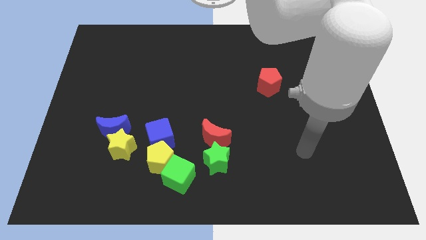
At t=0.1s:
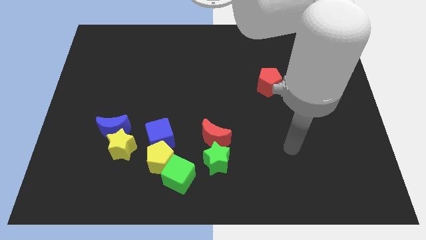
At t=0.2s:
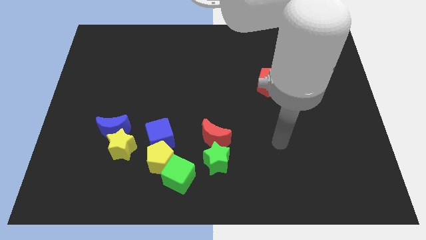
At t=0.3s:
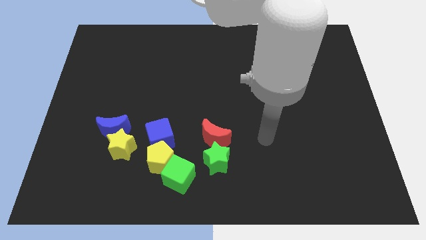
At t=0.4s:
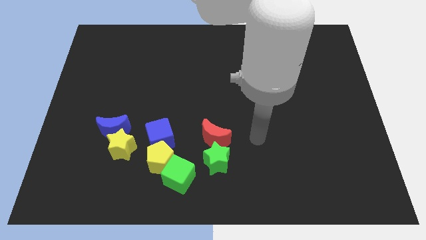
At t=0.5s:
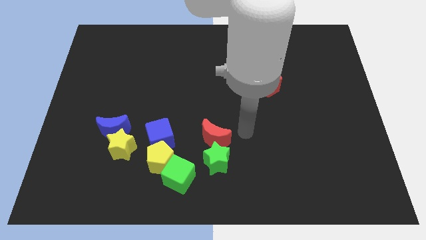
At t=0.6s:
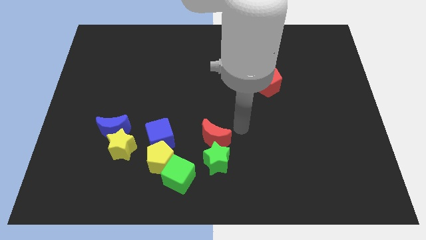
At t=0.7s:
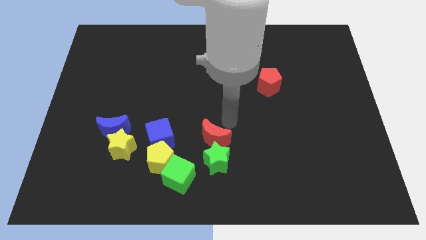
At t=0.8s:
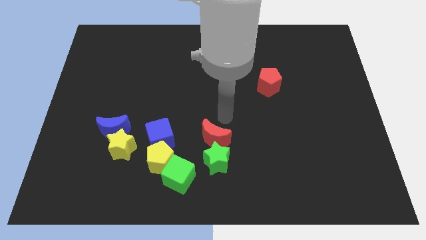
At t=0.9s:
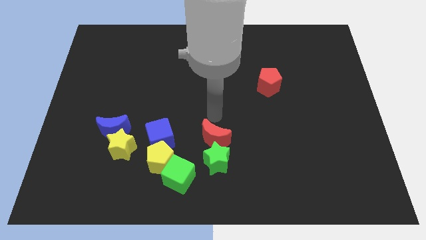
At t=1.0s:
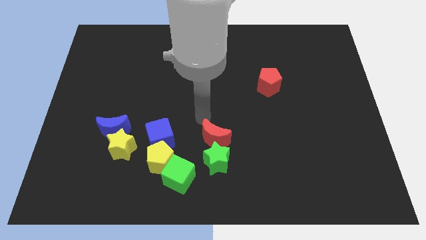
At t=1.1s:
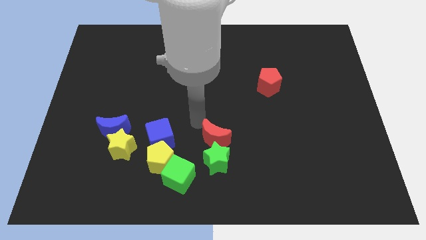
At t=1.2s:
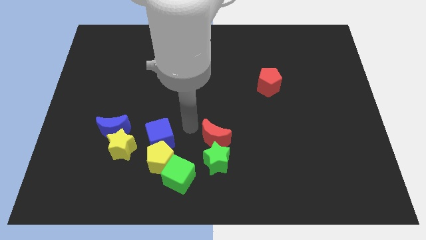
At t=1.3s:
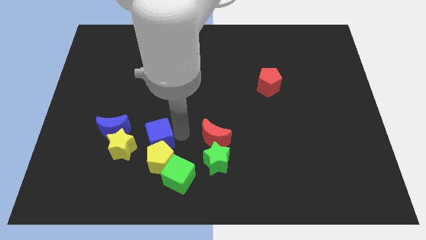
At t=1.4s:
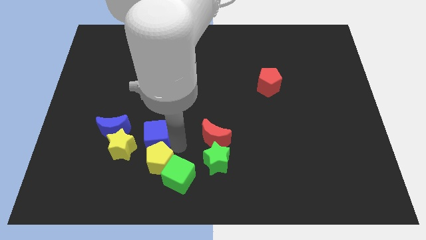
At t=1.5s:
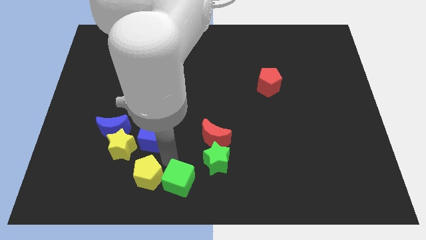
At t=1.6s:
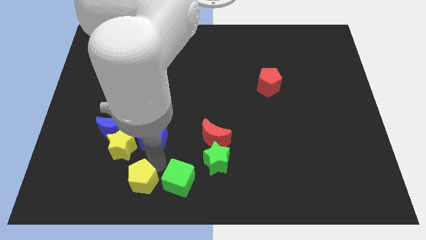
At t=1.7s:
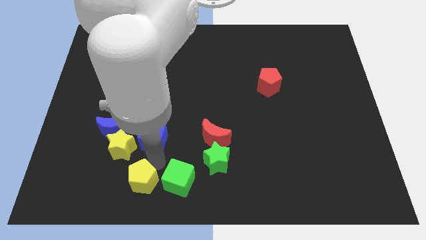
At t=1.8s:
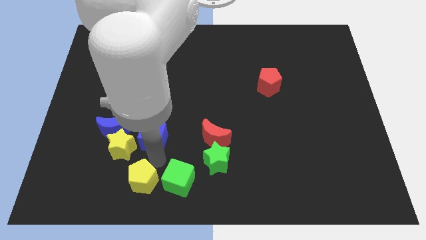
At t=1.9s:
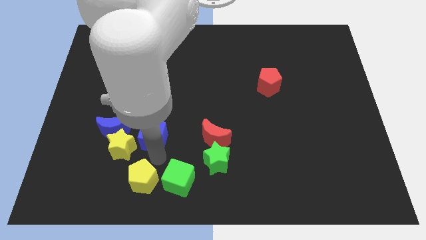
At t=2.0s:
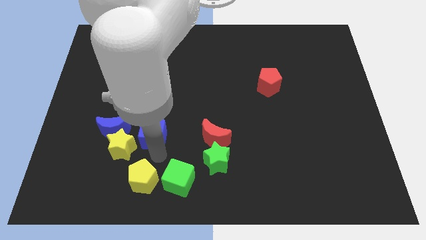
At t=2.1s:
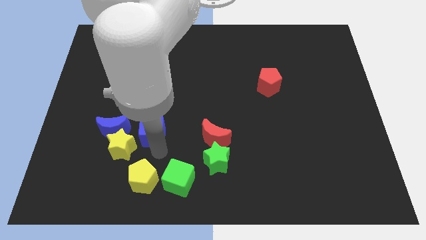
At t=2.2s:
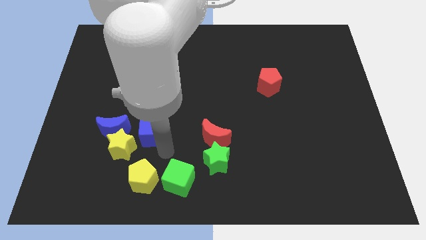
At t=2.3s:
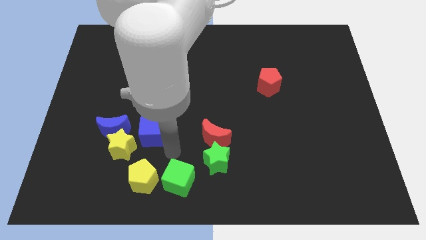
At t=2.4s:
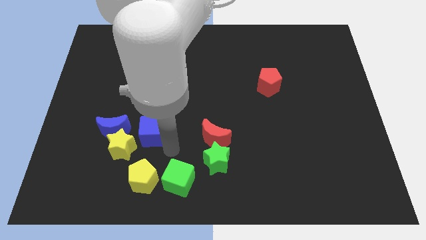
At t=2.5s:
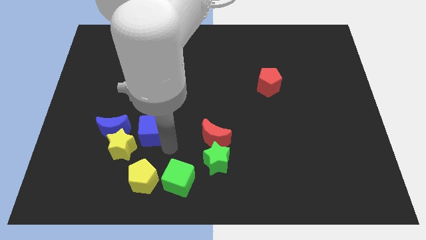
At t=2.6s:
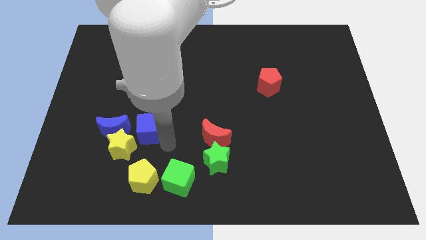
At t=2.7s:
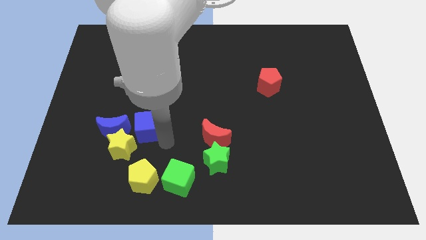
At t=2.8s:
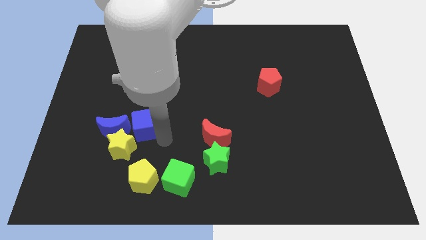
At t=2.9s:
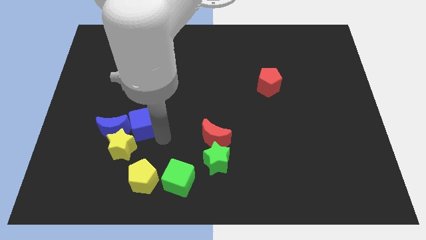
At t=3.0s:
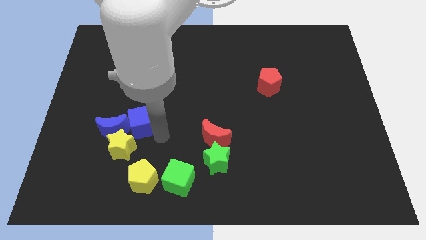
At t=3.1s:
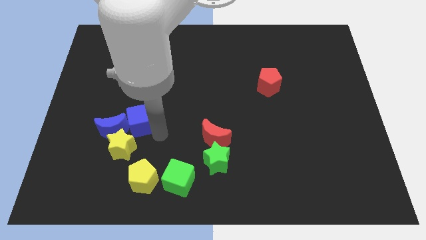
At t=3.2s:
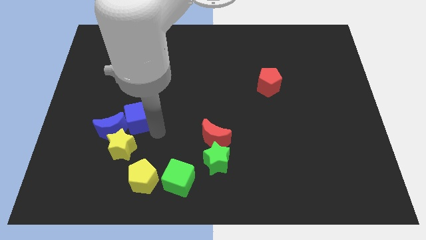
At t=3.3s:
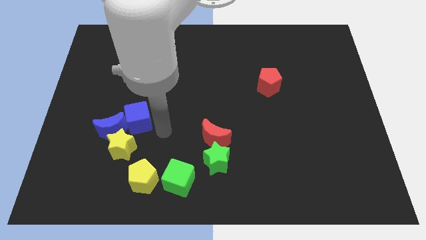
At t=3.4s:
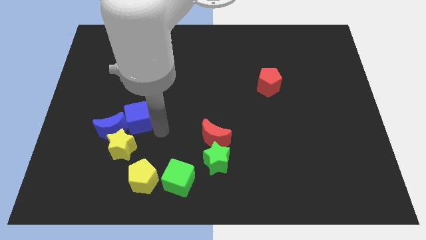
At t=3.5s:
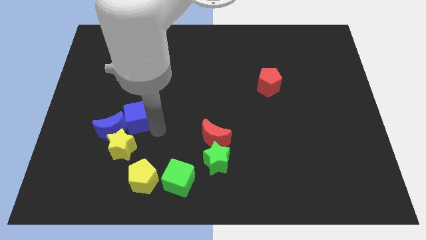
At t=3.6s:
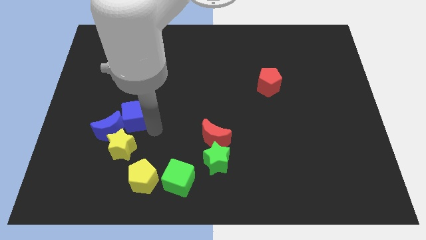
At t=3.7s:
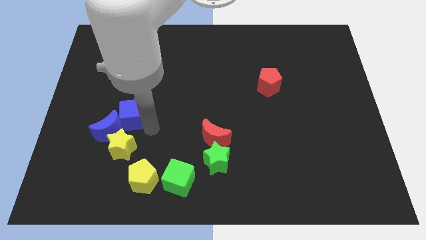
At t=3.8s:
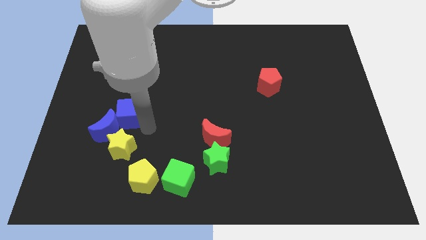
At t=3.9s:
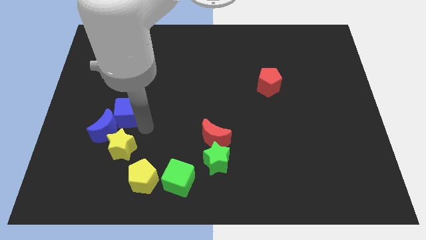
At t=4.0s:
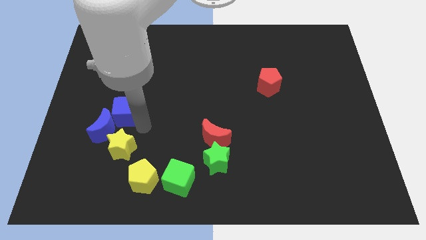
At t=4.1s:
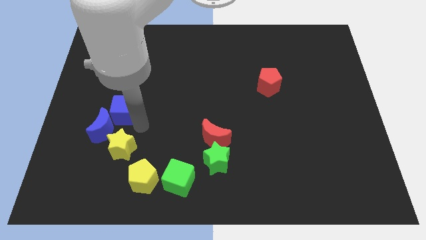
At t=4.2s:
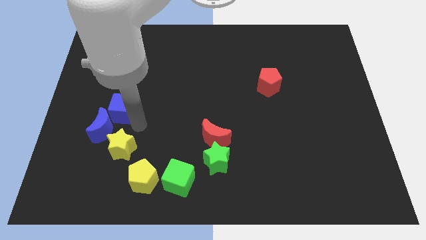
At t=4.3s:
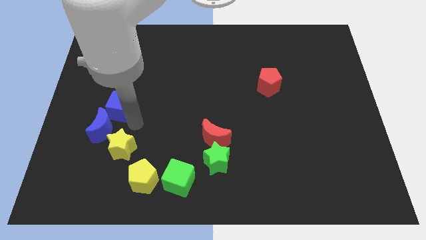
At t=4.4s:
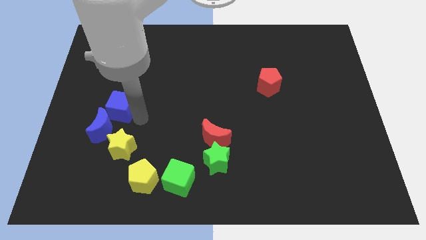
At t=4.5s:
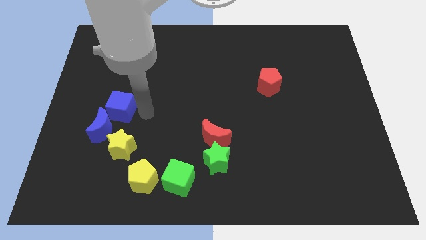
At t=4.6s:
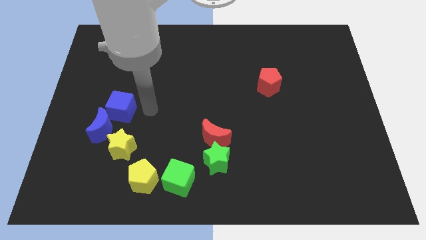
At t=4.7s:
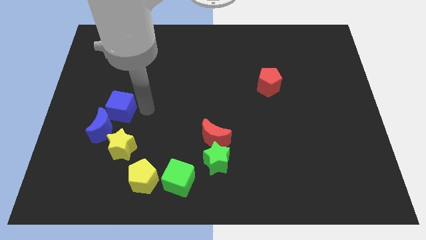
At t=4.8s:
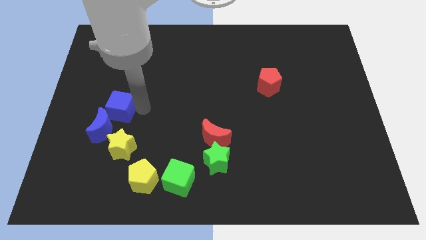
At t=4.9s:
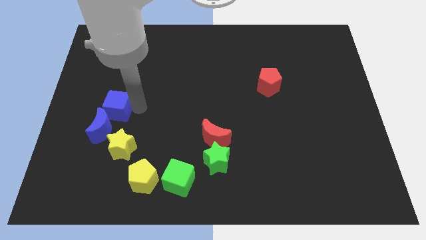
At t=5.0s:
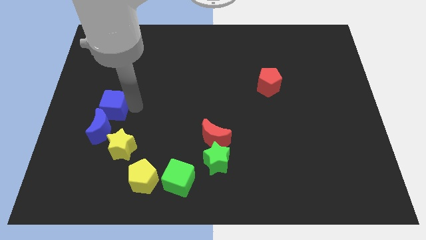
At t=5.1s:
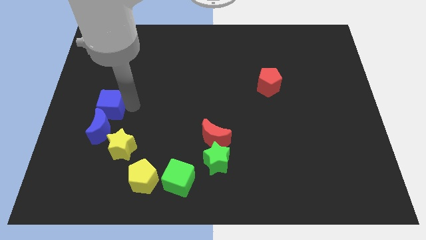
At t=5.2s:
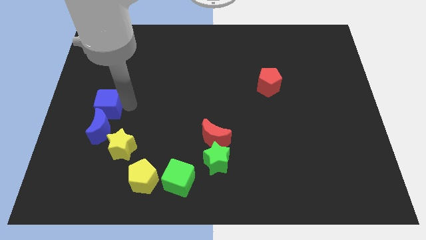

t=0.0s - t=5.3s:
put the blue cube to the top left side of the blue moon

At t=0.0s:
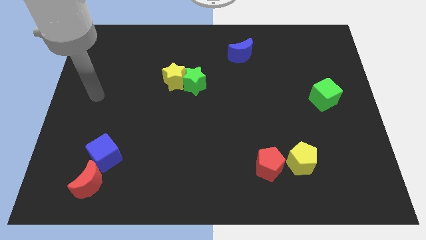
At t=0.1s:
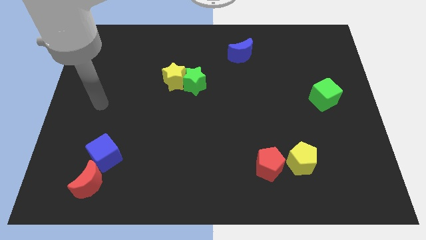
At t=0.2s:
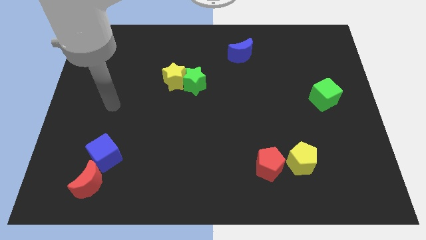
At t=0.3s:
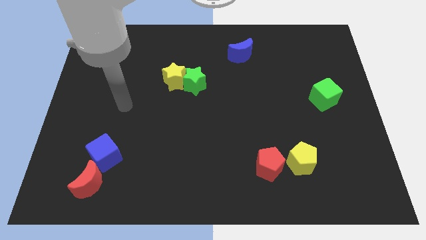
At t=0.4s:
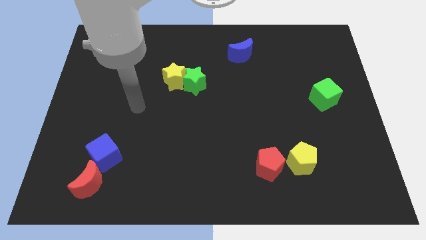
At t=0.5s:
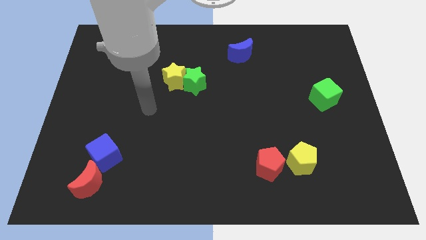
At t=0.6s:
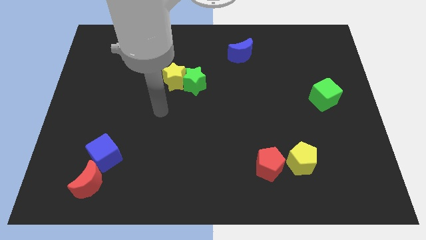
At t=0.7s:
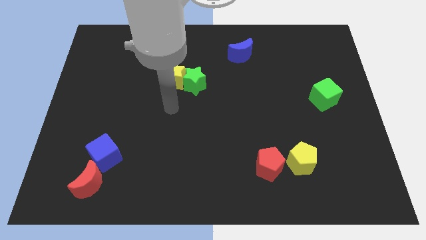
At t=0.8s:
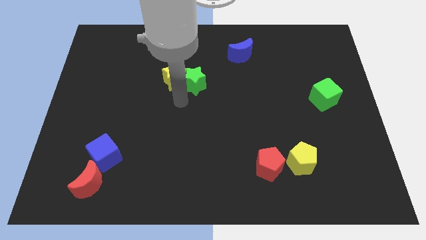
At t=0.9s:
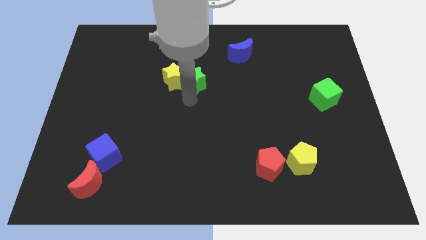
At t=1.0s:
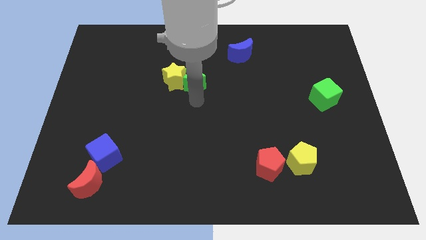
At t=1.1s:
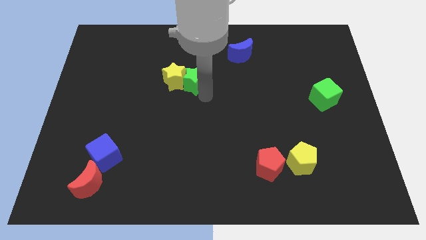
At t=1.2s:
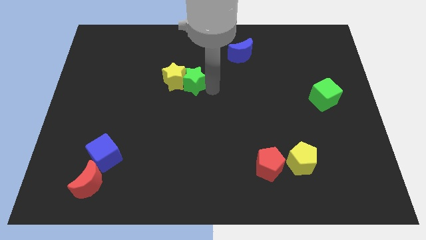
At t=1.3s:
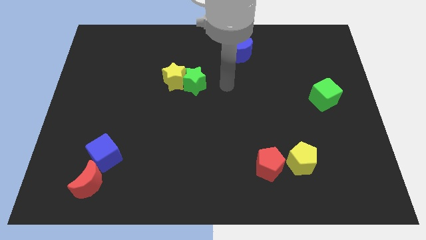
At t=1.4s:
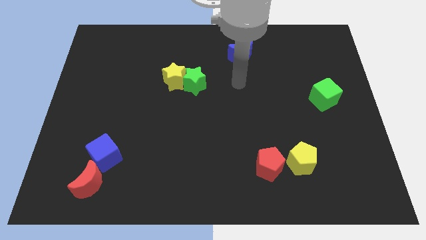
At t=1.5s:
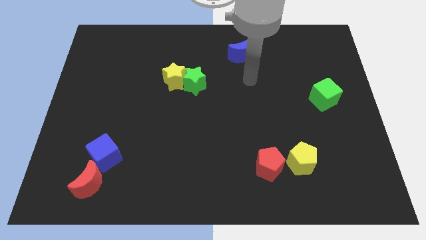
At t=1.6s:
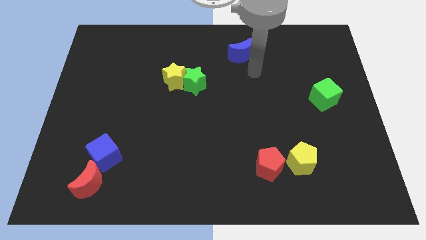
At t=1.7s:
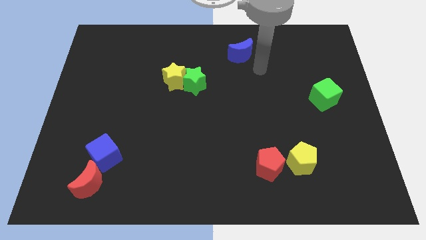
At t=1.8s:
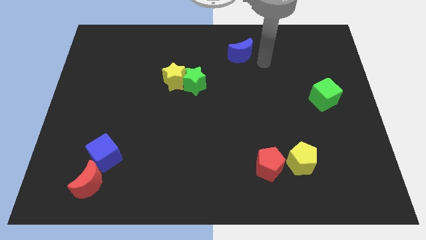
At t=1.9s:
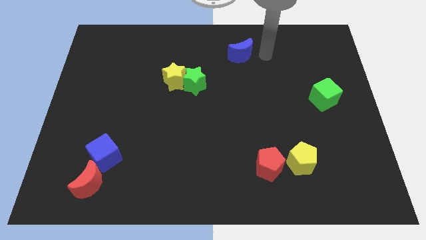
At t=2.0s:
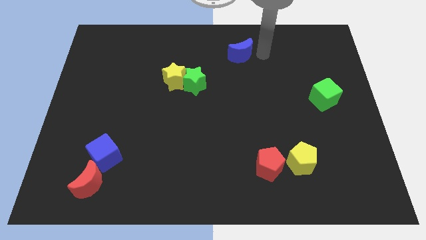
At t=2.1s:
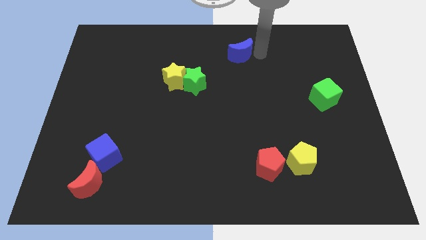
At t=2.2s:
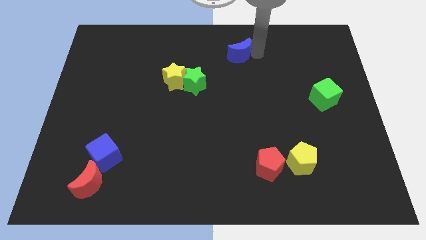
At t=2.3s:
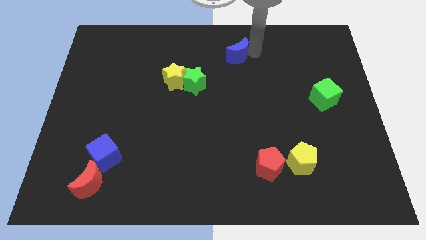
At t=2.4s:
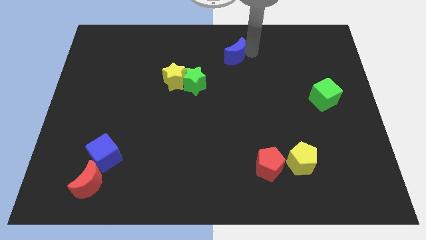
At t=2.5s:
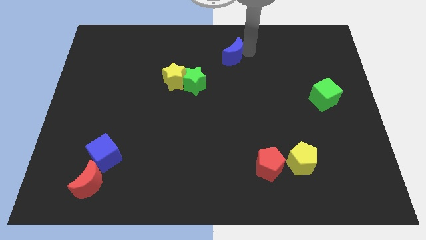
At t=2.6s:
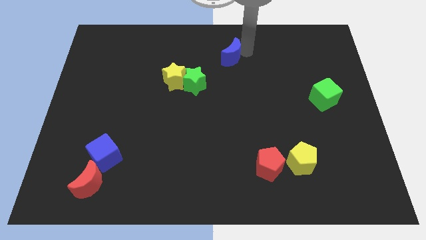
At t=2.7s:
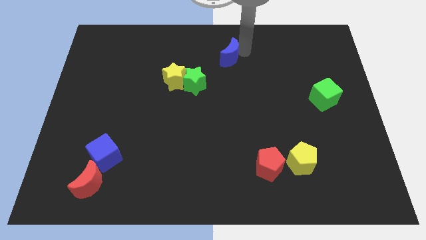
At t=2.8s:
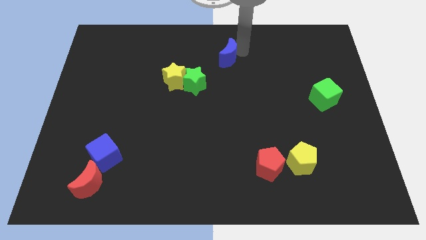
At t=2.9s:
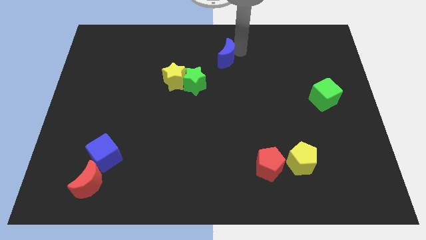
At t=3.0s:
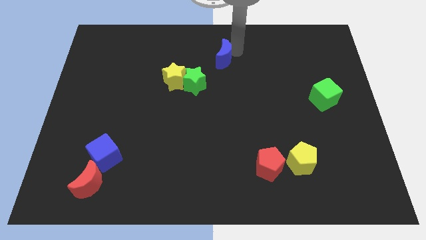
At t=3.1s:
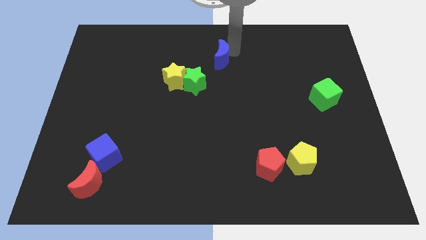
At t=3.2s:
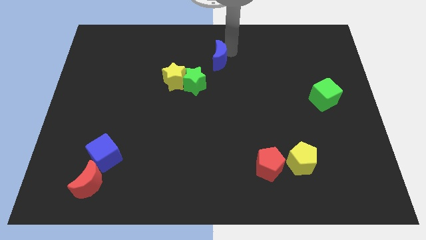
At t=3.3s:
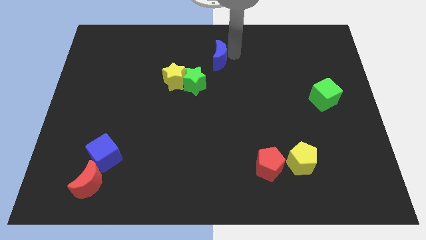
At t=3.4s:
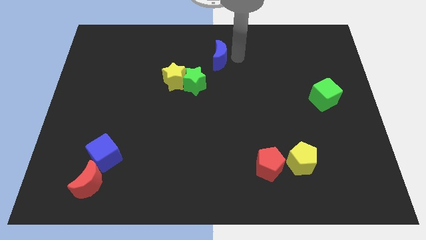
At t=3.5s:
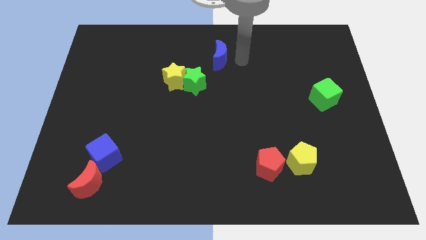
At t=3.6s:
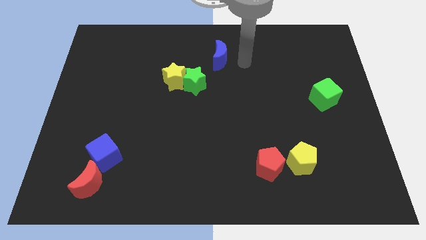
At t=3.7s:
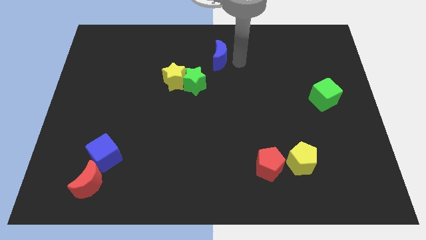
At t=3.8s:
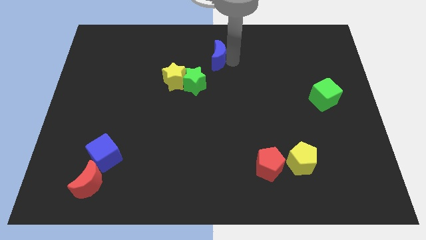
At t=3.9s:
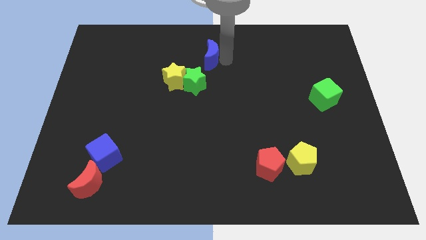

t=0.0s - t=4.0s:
slide the blue moon above the green star
